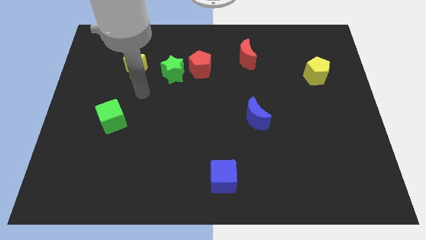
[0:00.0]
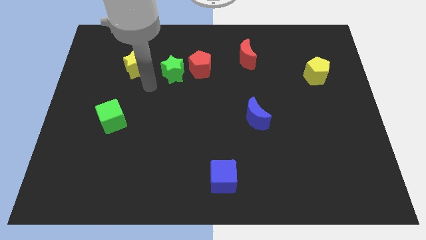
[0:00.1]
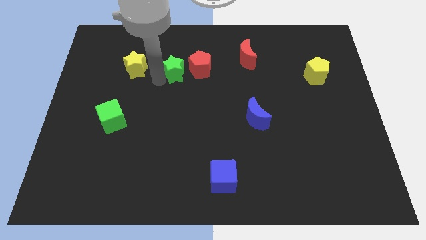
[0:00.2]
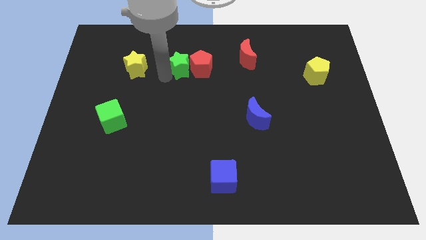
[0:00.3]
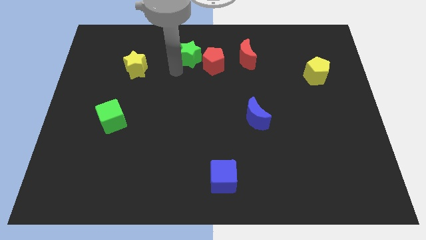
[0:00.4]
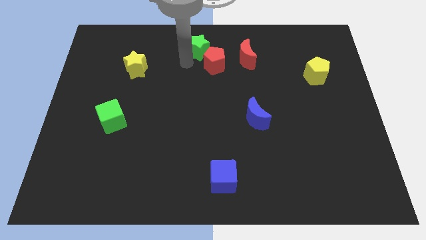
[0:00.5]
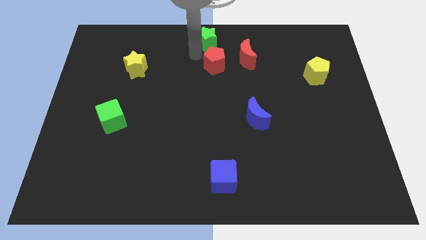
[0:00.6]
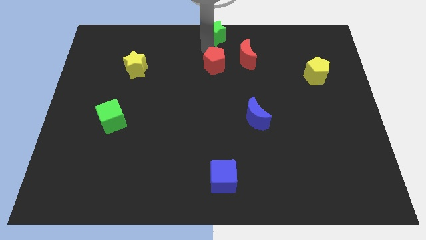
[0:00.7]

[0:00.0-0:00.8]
move the red pentagon away from the green star

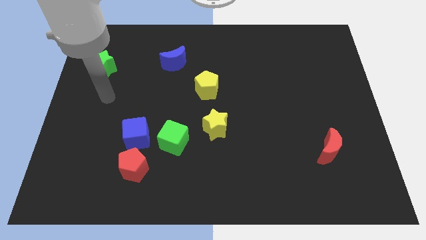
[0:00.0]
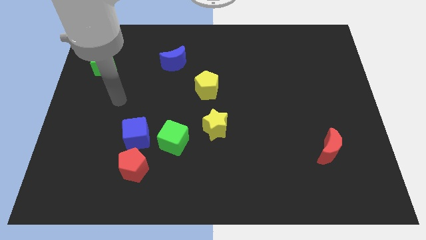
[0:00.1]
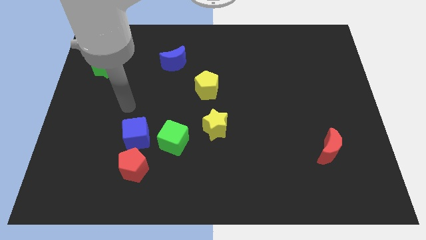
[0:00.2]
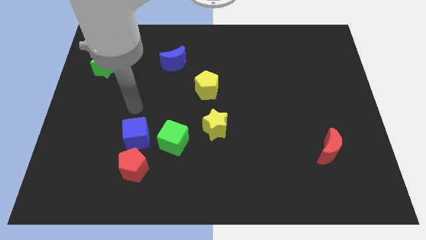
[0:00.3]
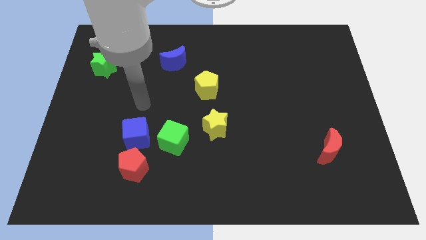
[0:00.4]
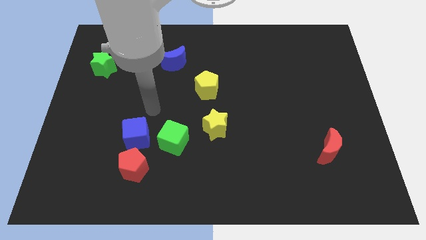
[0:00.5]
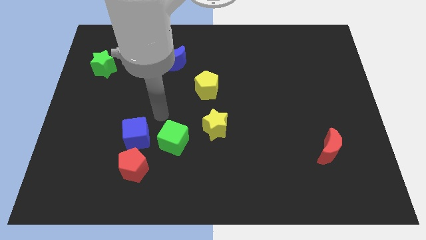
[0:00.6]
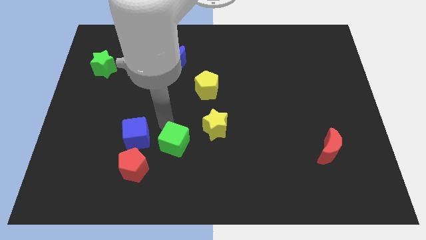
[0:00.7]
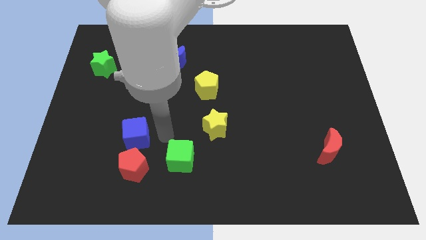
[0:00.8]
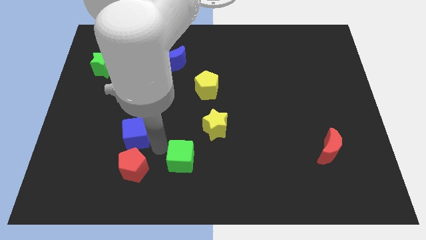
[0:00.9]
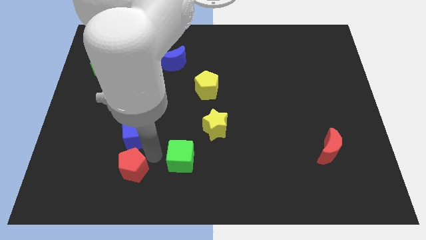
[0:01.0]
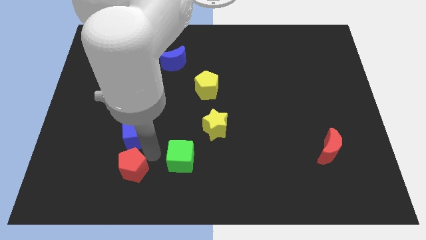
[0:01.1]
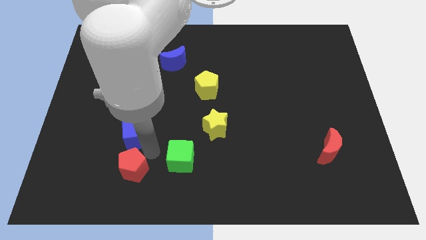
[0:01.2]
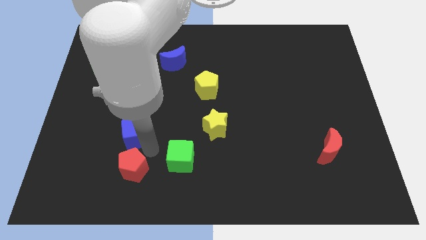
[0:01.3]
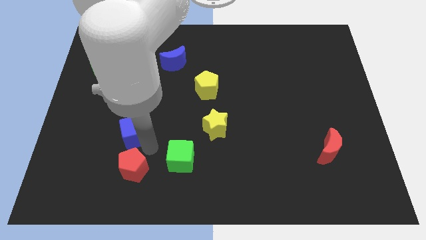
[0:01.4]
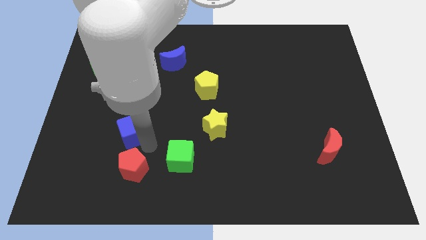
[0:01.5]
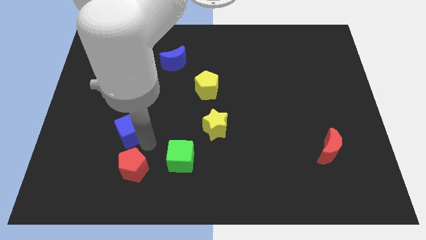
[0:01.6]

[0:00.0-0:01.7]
separate the blue cube from the red pentagon and green cube

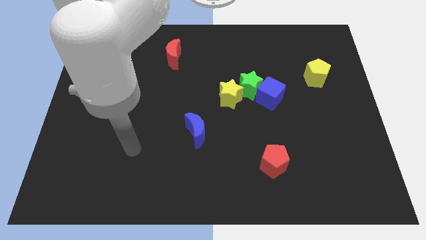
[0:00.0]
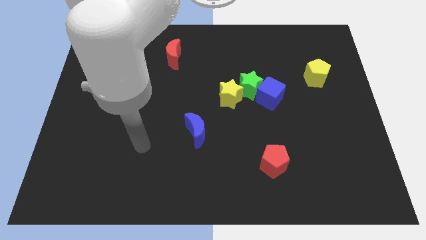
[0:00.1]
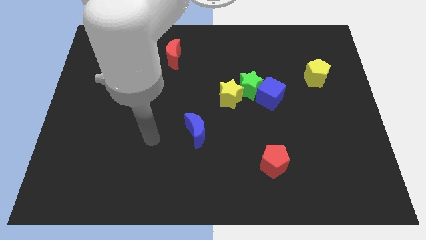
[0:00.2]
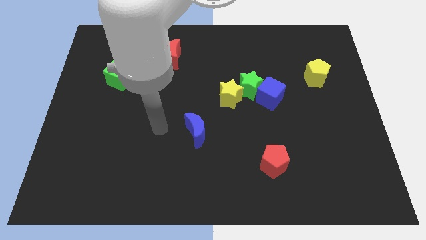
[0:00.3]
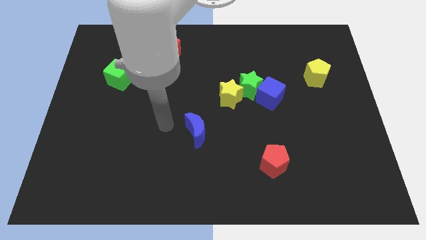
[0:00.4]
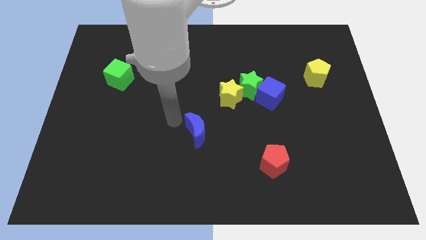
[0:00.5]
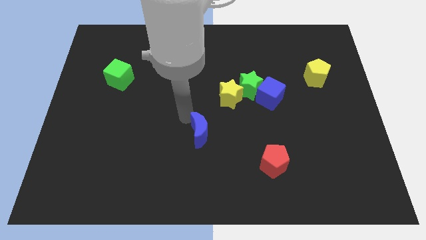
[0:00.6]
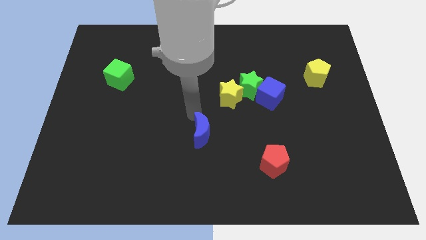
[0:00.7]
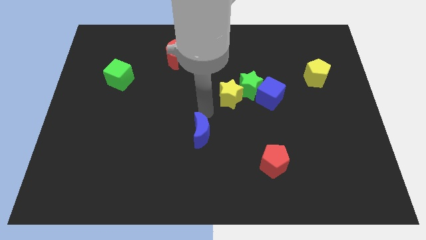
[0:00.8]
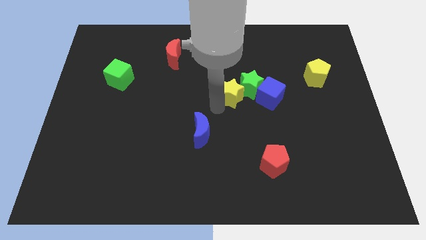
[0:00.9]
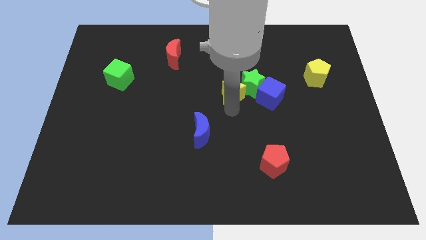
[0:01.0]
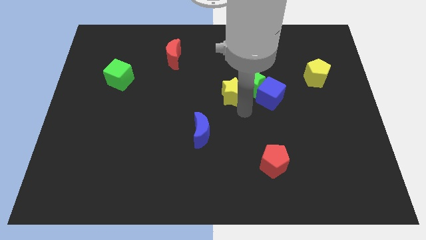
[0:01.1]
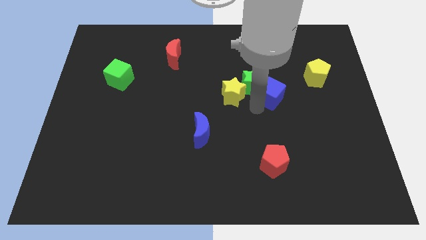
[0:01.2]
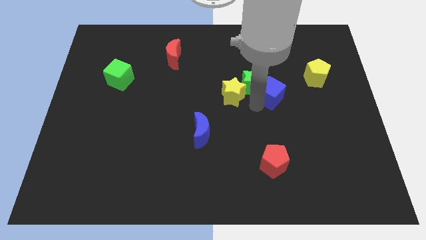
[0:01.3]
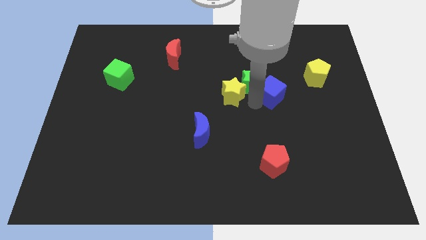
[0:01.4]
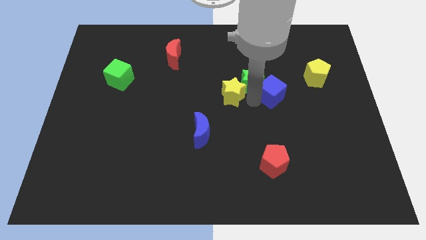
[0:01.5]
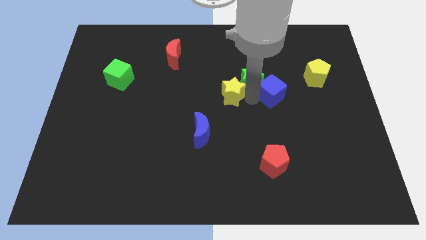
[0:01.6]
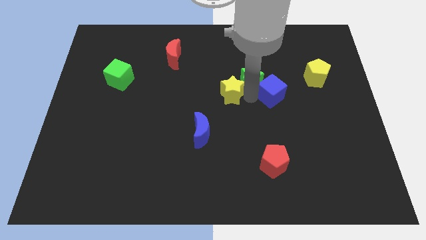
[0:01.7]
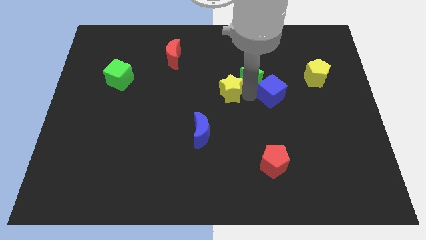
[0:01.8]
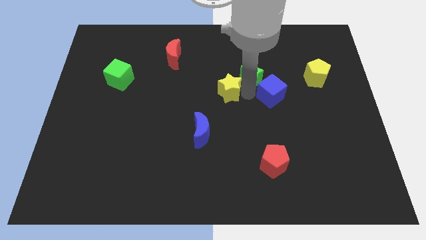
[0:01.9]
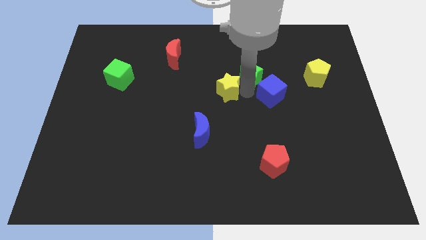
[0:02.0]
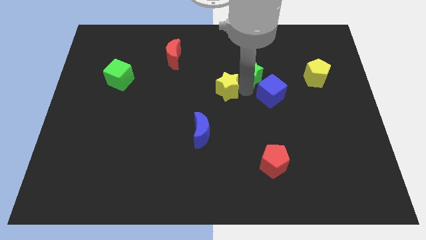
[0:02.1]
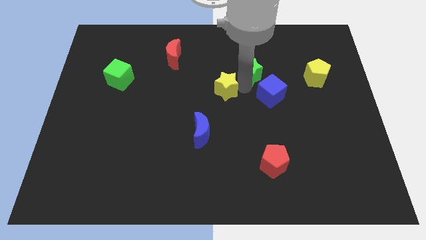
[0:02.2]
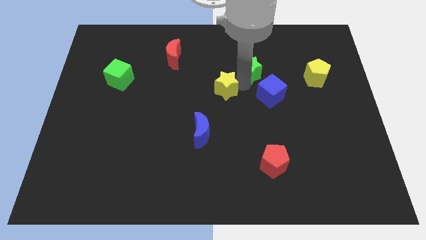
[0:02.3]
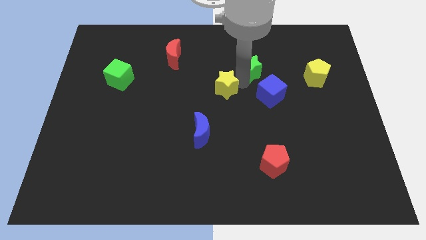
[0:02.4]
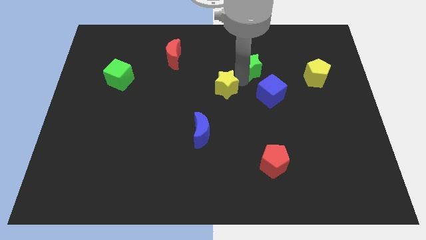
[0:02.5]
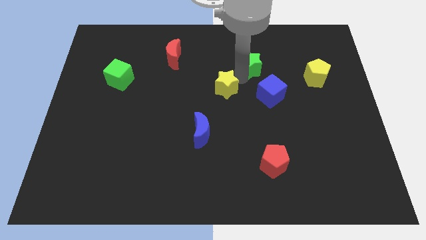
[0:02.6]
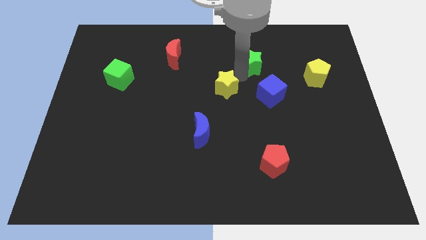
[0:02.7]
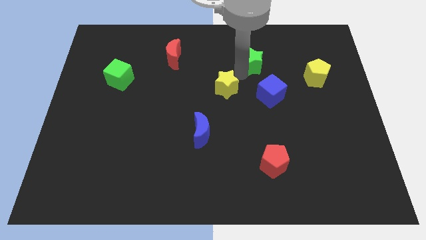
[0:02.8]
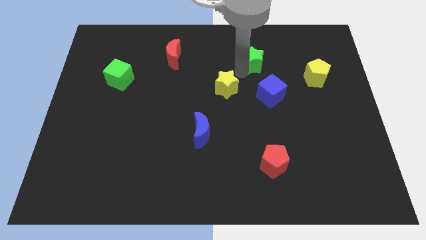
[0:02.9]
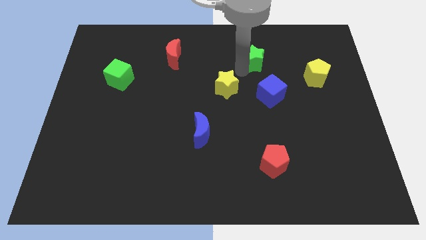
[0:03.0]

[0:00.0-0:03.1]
move the green star away from the yellow star and blue cube

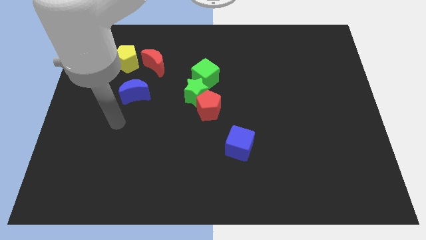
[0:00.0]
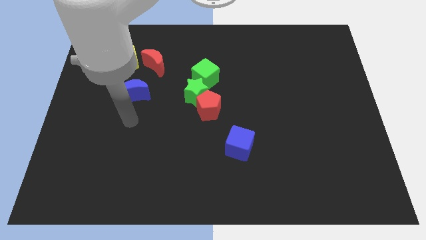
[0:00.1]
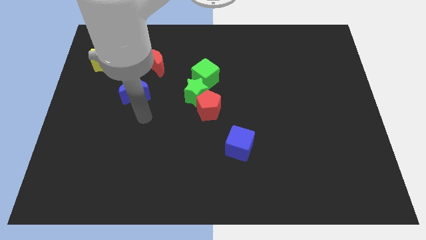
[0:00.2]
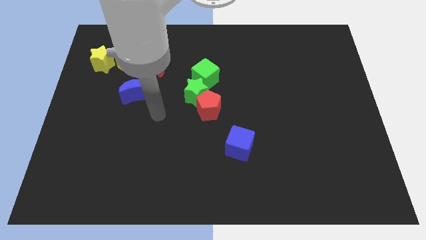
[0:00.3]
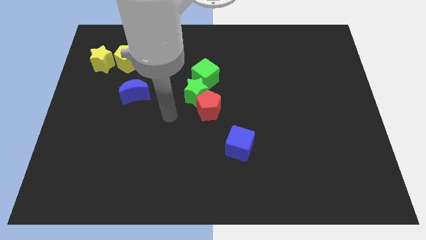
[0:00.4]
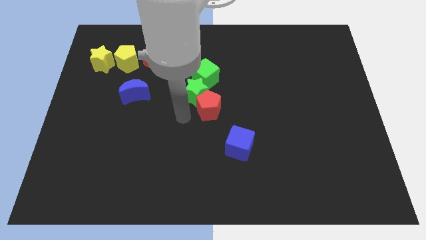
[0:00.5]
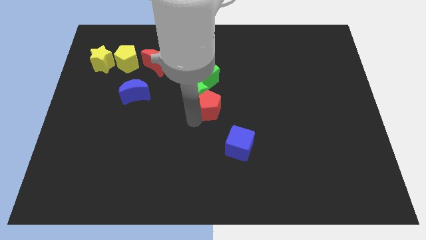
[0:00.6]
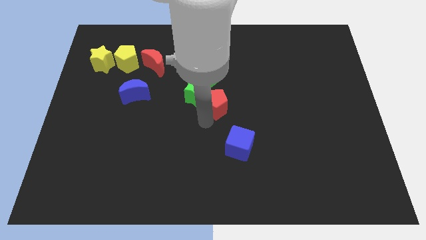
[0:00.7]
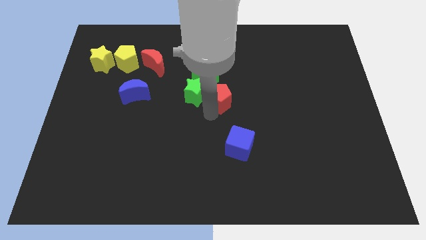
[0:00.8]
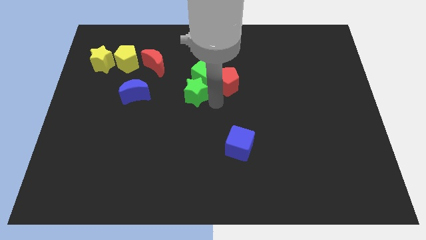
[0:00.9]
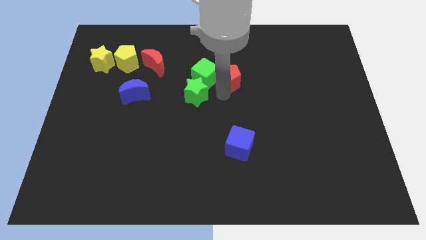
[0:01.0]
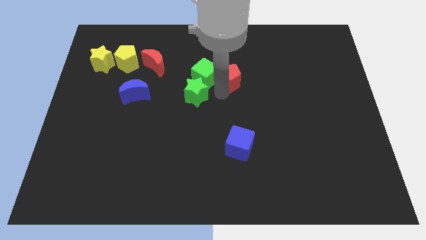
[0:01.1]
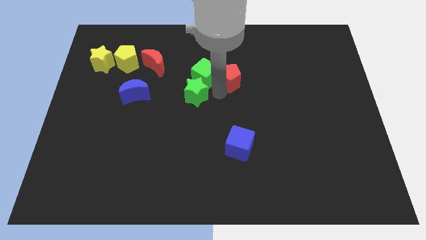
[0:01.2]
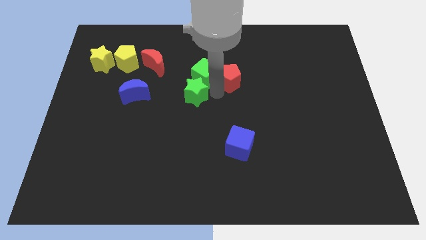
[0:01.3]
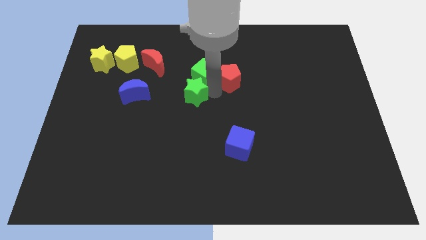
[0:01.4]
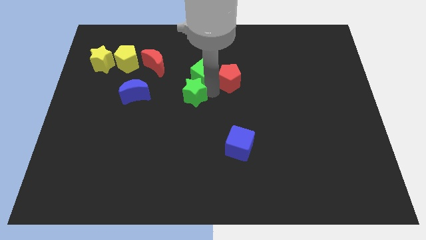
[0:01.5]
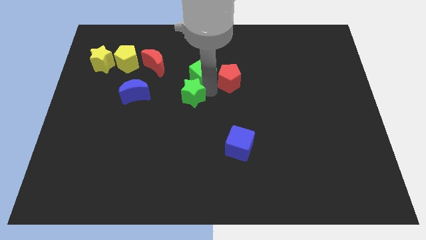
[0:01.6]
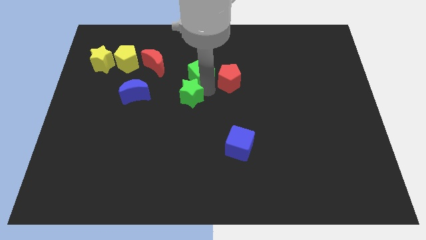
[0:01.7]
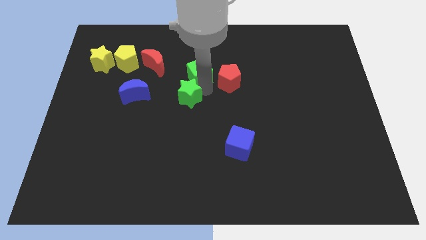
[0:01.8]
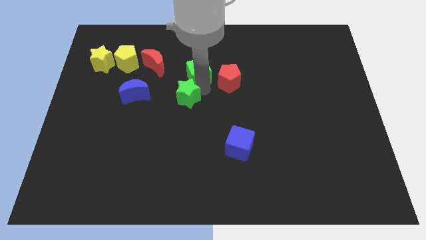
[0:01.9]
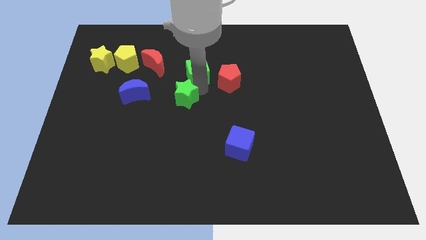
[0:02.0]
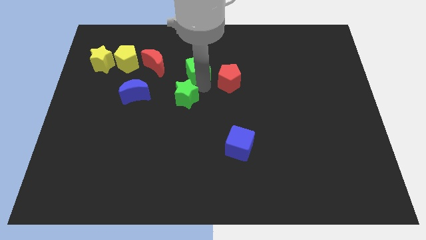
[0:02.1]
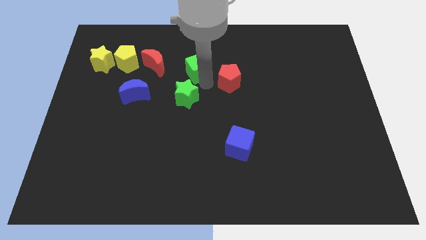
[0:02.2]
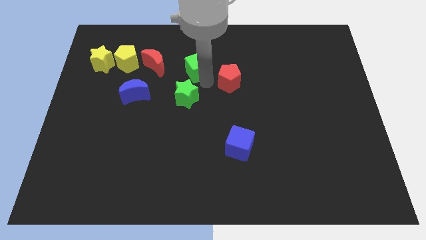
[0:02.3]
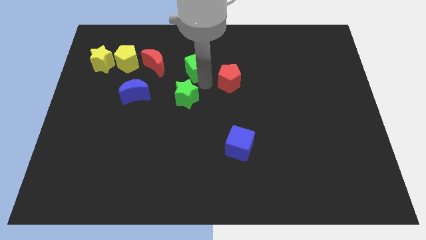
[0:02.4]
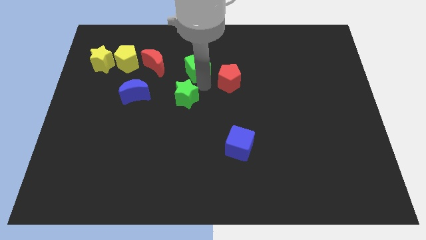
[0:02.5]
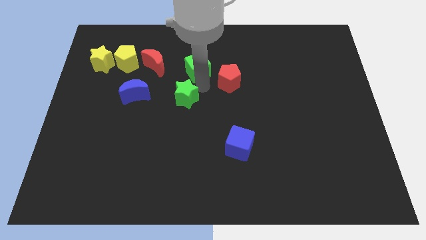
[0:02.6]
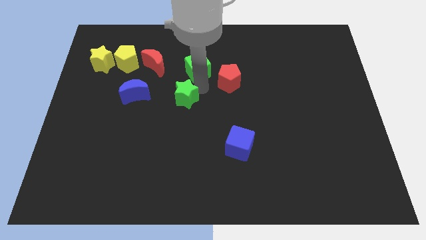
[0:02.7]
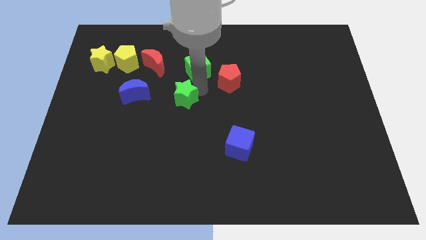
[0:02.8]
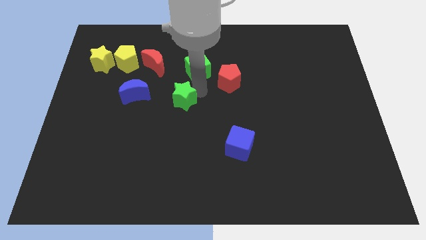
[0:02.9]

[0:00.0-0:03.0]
move the green star away from the red pentagon and green cube

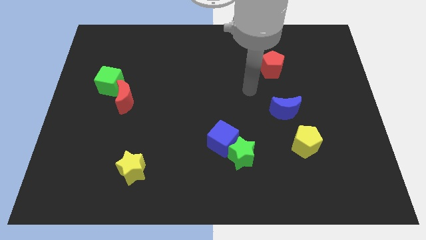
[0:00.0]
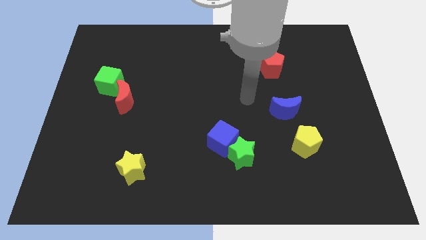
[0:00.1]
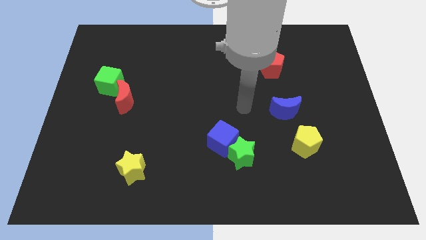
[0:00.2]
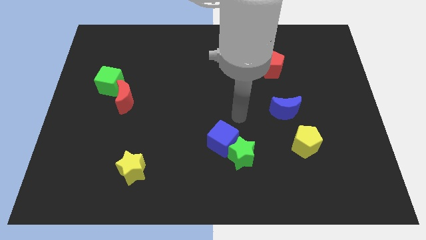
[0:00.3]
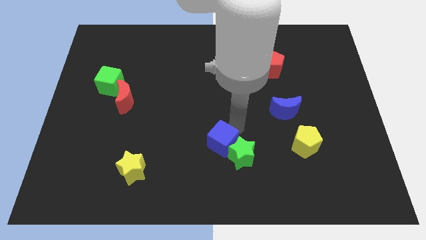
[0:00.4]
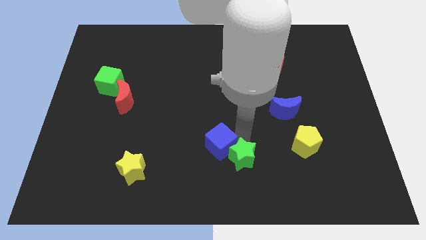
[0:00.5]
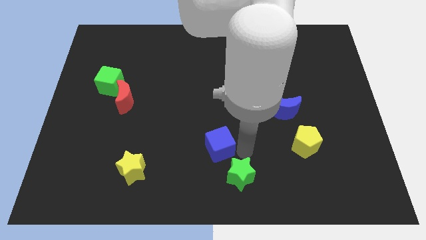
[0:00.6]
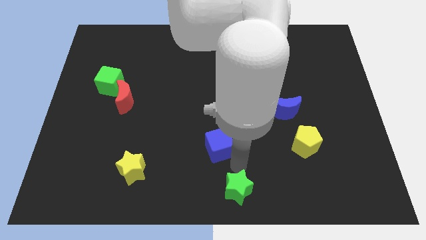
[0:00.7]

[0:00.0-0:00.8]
move the blue cube away from the green star
